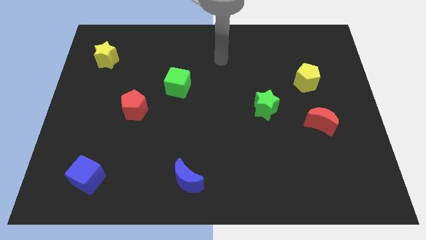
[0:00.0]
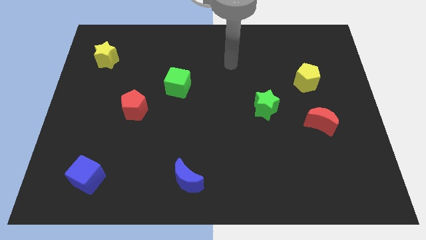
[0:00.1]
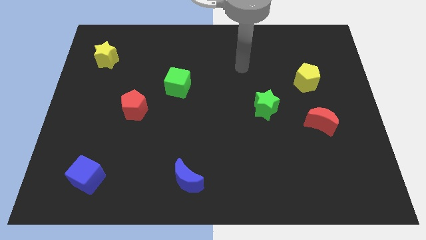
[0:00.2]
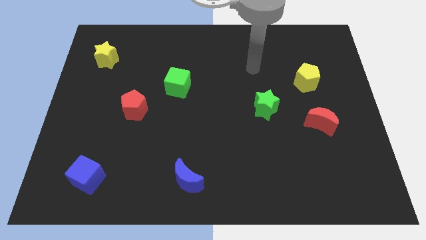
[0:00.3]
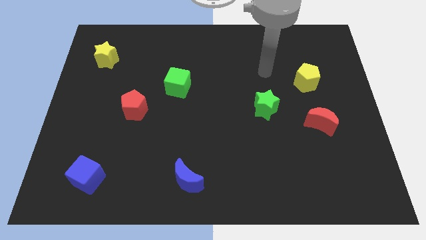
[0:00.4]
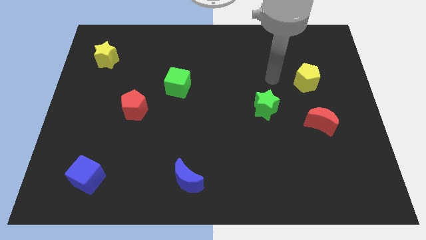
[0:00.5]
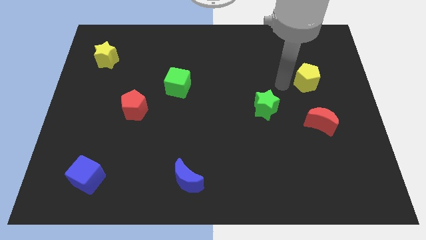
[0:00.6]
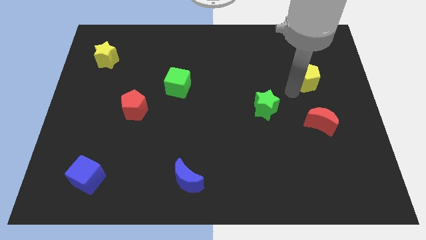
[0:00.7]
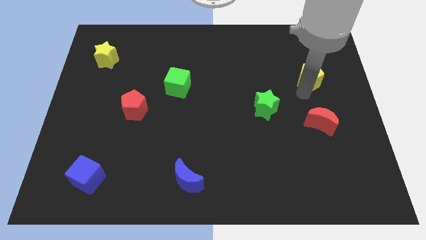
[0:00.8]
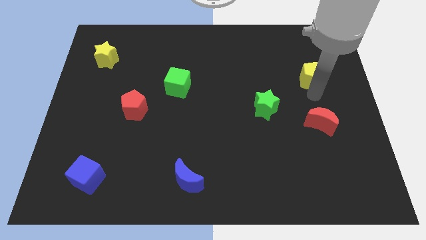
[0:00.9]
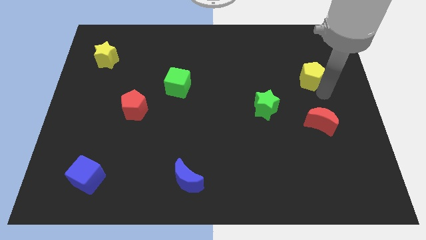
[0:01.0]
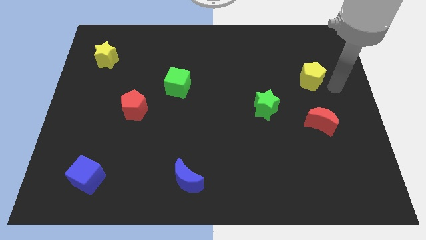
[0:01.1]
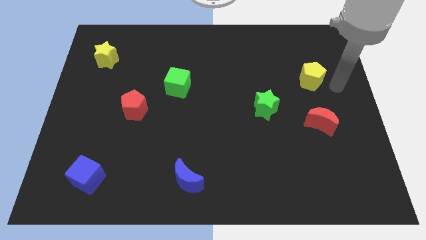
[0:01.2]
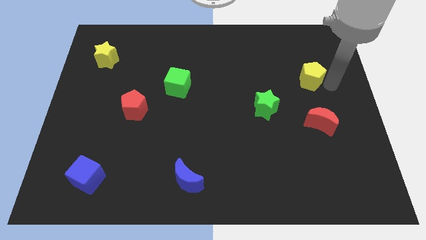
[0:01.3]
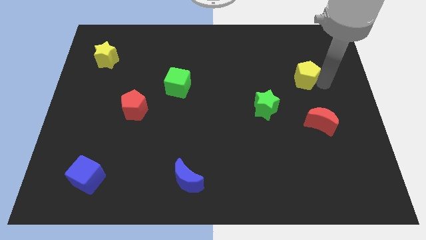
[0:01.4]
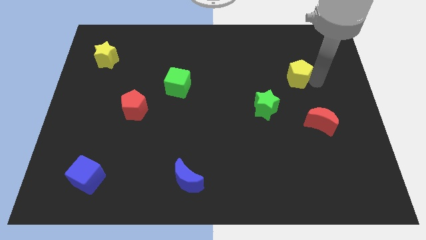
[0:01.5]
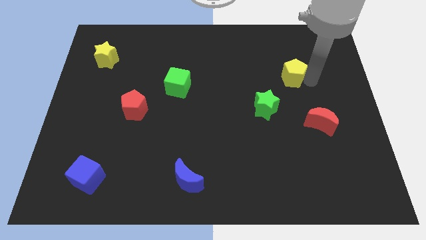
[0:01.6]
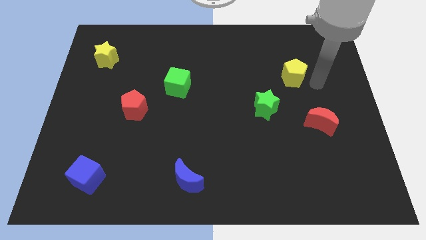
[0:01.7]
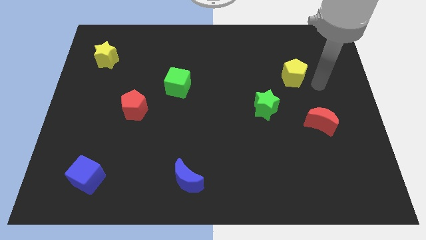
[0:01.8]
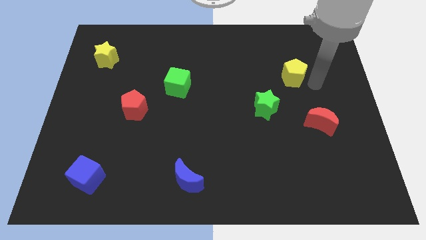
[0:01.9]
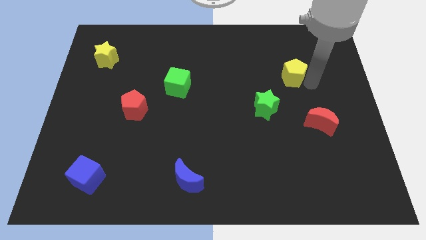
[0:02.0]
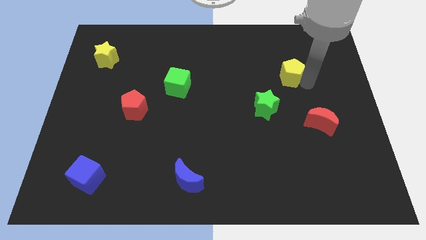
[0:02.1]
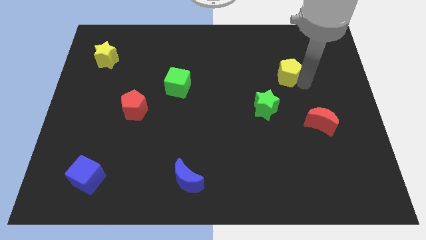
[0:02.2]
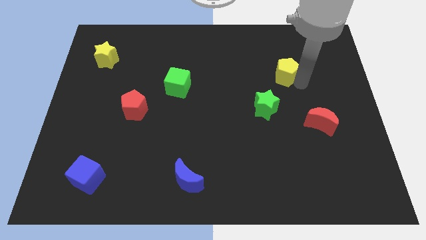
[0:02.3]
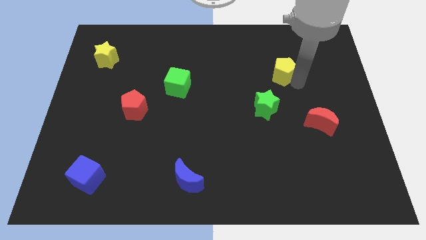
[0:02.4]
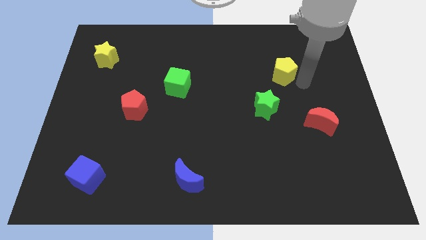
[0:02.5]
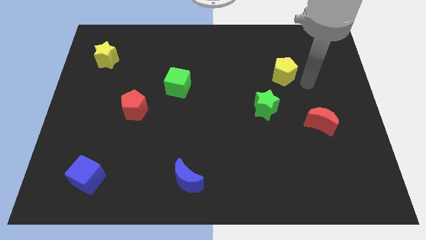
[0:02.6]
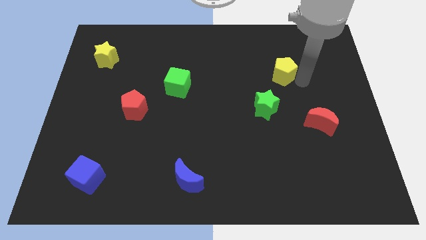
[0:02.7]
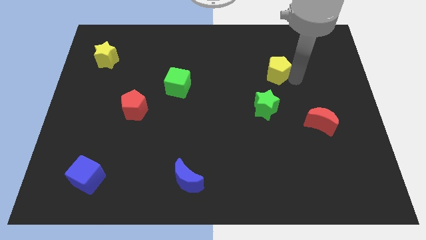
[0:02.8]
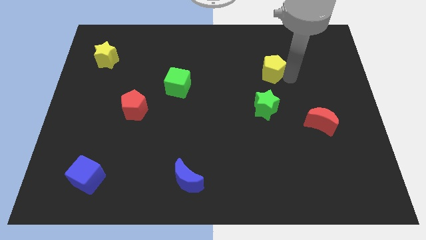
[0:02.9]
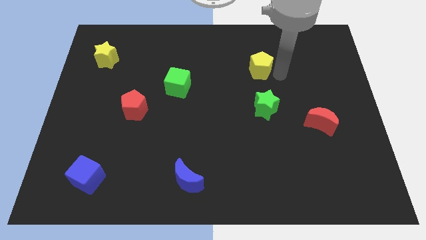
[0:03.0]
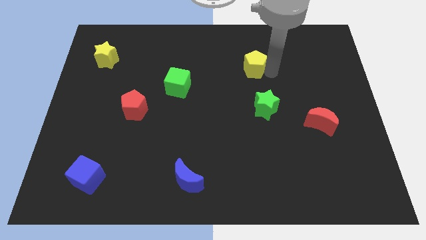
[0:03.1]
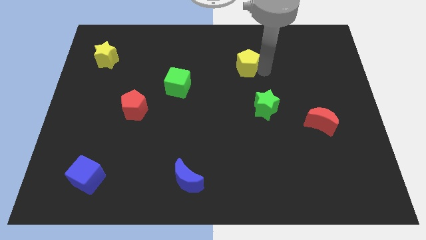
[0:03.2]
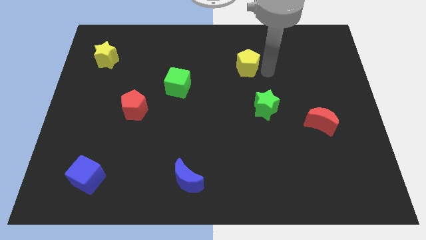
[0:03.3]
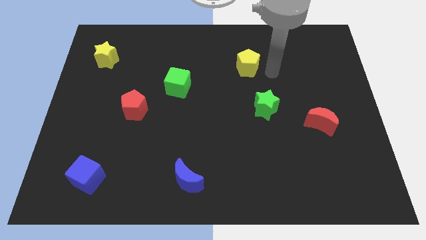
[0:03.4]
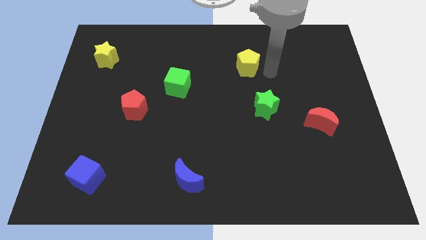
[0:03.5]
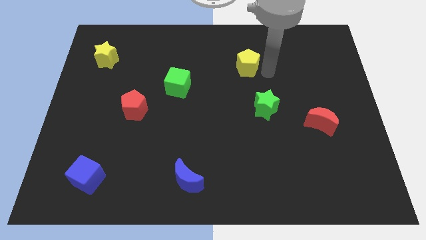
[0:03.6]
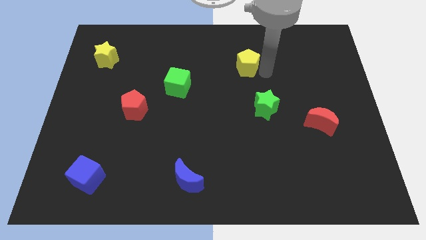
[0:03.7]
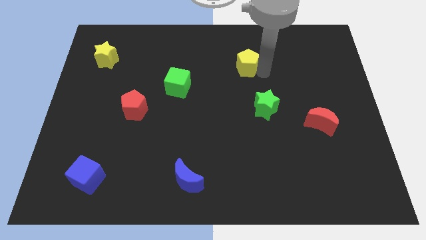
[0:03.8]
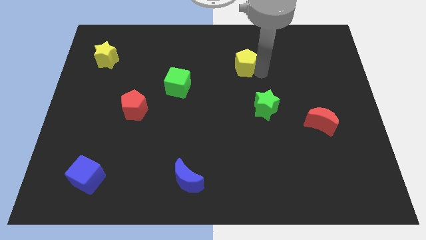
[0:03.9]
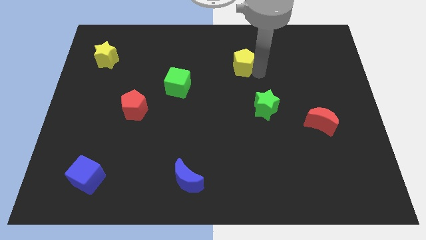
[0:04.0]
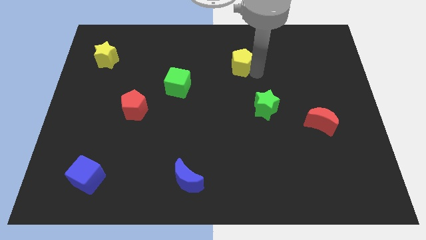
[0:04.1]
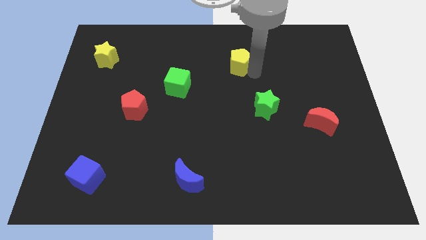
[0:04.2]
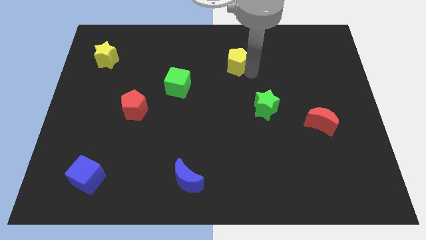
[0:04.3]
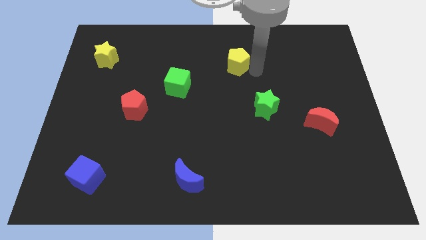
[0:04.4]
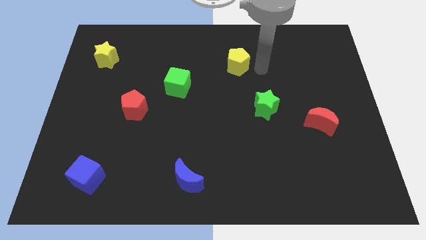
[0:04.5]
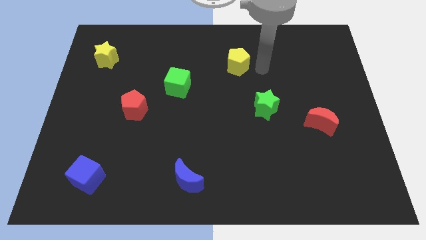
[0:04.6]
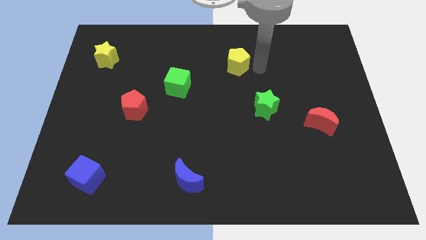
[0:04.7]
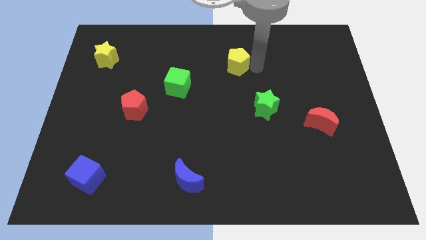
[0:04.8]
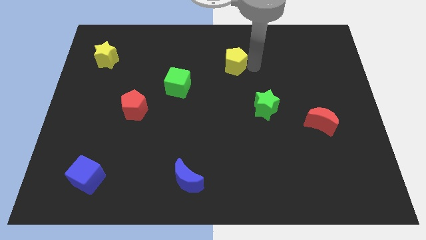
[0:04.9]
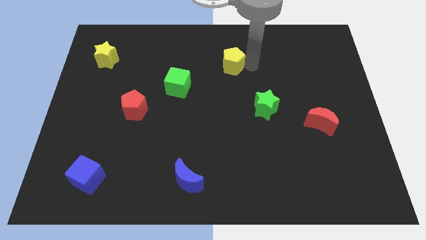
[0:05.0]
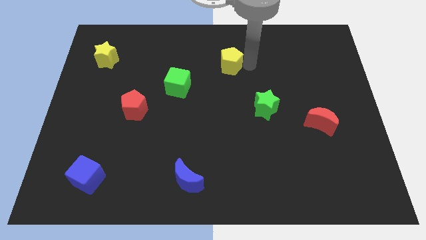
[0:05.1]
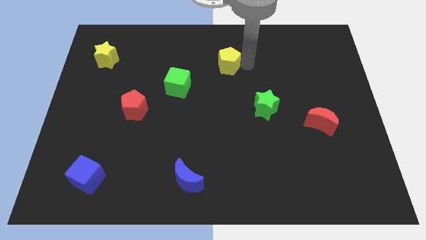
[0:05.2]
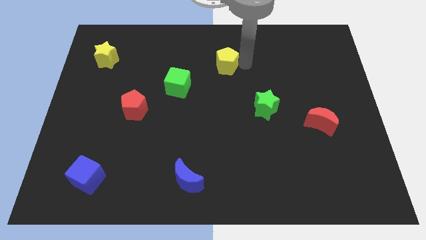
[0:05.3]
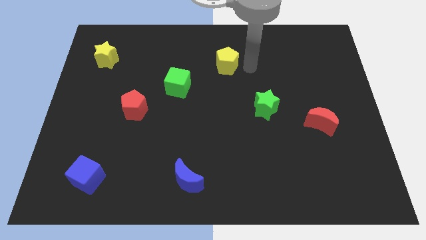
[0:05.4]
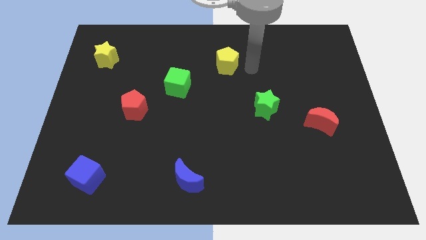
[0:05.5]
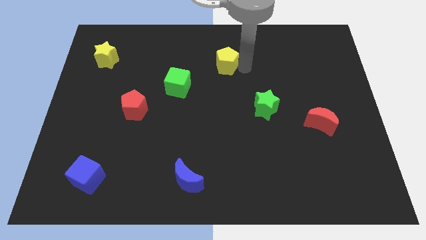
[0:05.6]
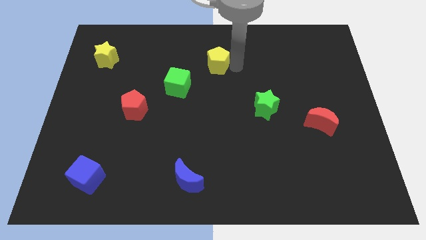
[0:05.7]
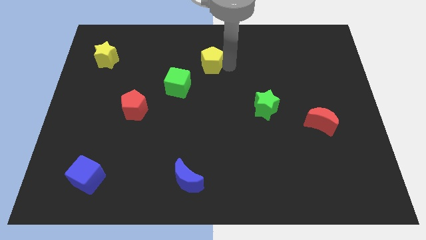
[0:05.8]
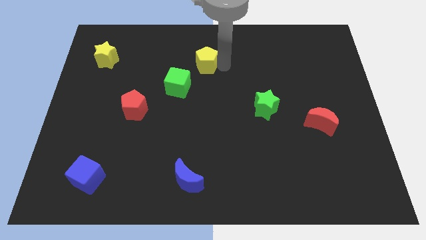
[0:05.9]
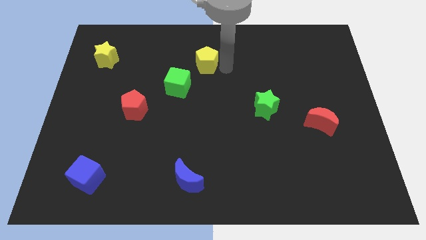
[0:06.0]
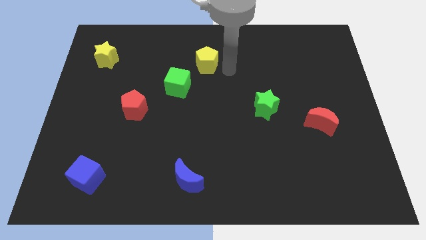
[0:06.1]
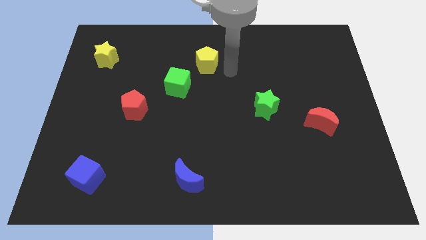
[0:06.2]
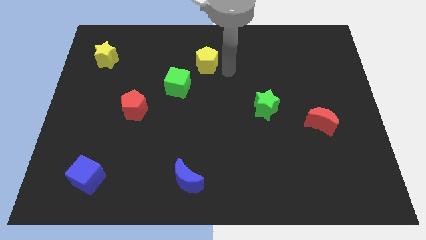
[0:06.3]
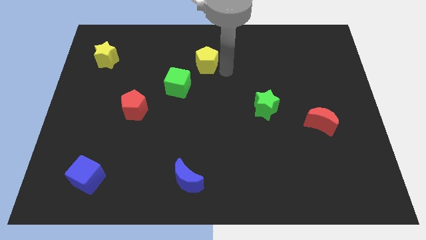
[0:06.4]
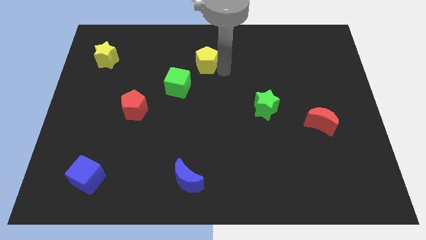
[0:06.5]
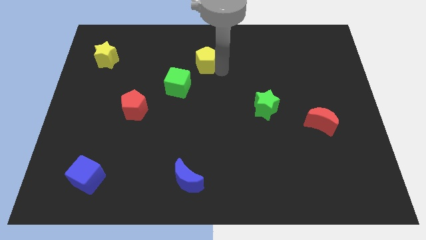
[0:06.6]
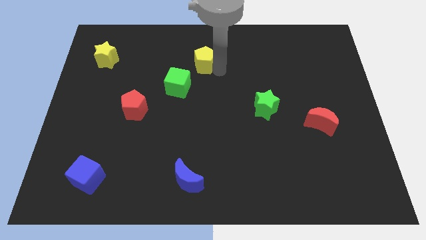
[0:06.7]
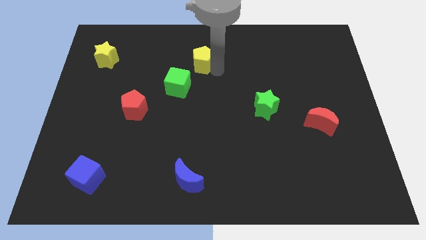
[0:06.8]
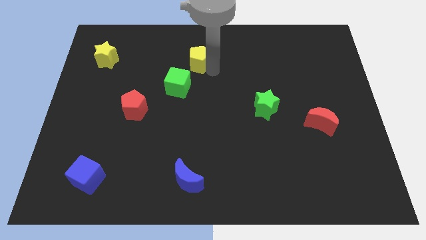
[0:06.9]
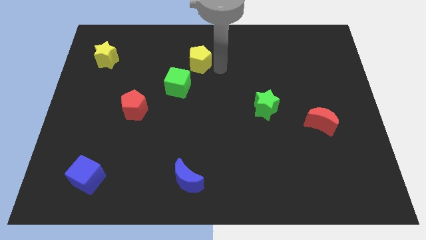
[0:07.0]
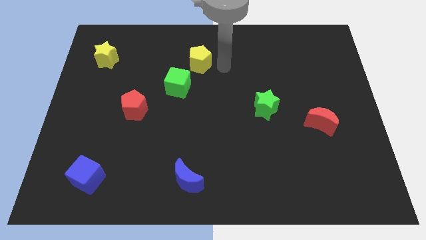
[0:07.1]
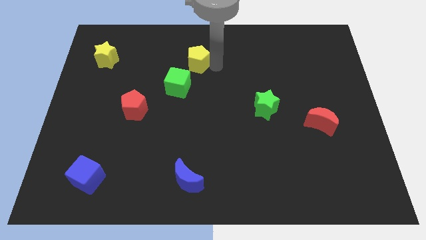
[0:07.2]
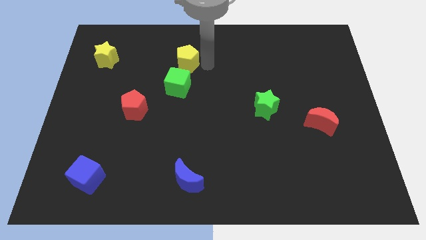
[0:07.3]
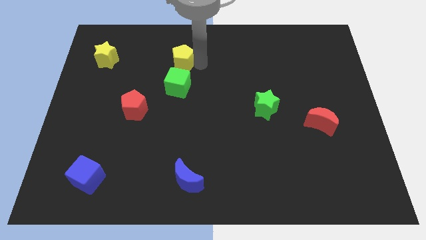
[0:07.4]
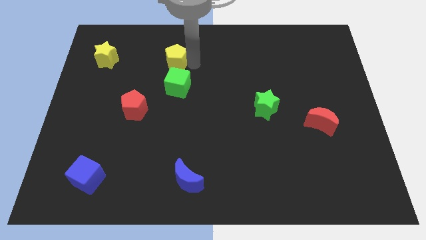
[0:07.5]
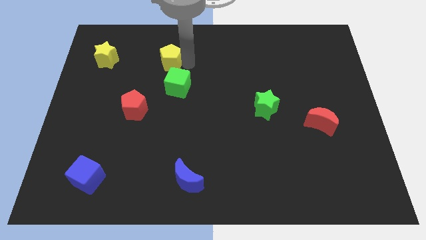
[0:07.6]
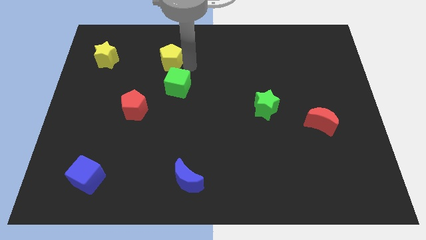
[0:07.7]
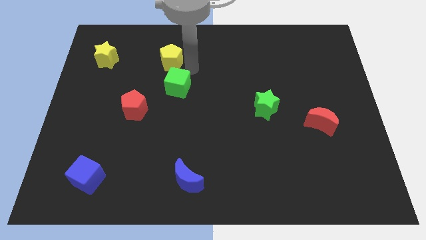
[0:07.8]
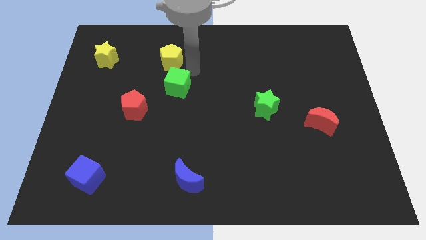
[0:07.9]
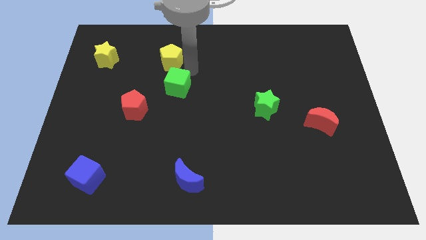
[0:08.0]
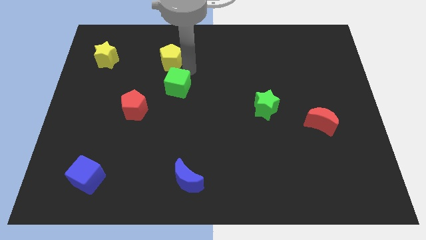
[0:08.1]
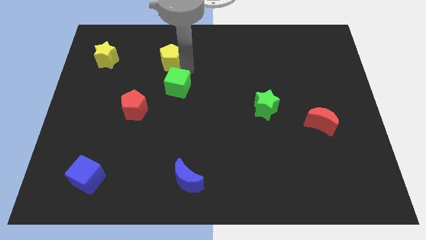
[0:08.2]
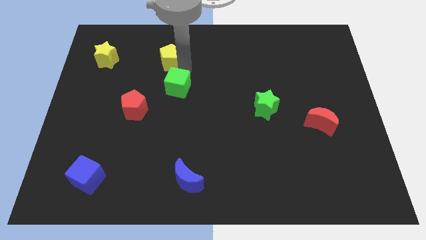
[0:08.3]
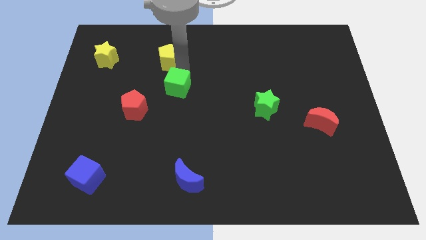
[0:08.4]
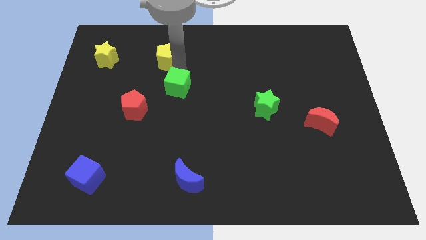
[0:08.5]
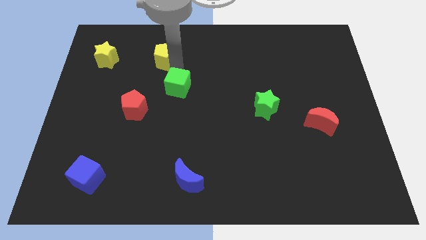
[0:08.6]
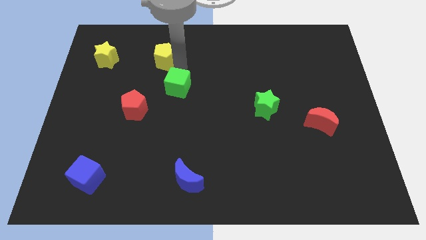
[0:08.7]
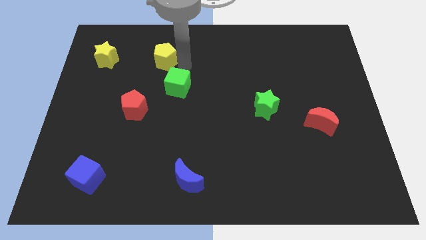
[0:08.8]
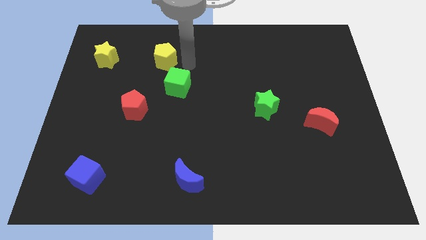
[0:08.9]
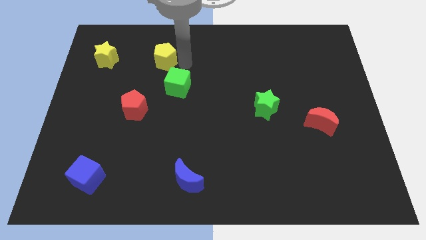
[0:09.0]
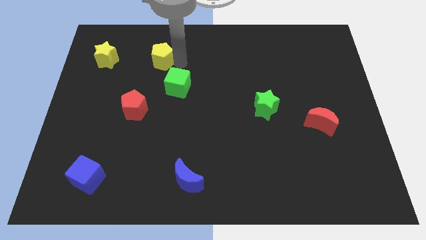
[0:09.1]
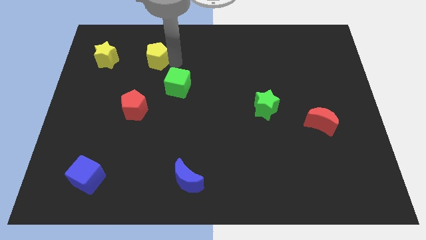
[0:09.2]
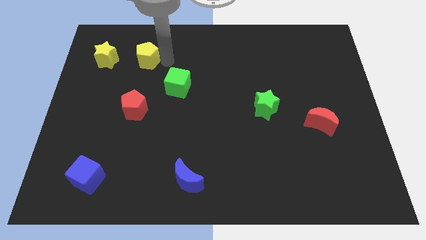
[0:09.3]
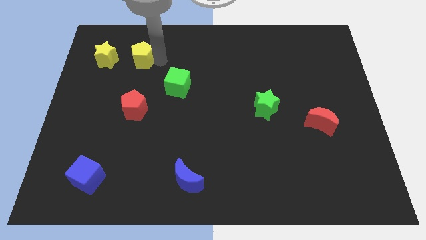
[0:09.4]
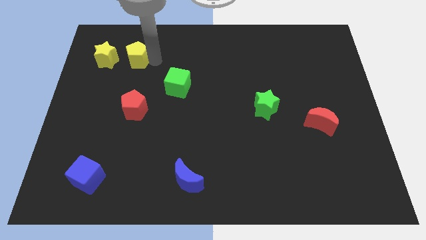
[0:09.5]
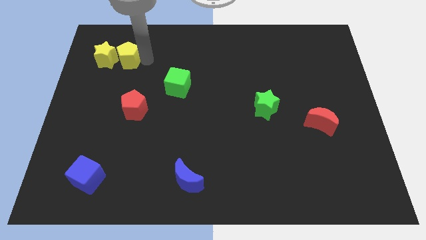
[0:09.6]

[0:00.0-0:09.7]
slide the yellow pentagon towards the yellow star
